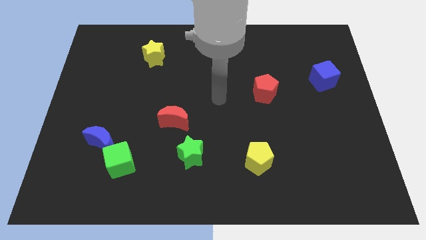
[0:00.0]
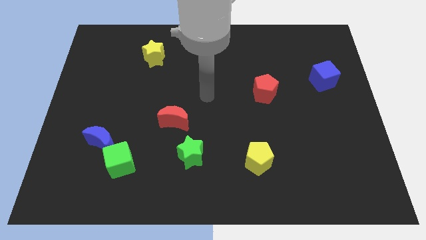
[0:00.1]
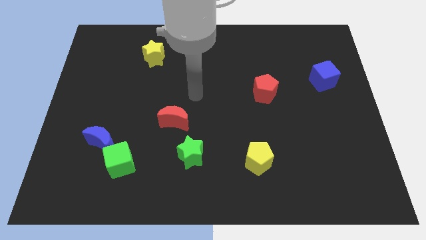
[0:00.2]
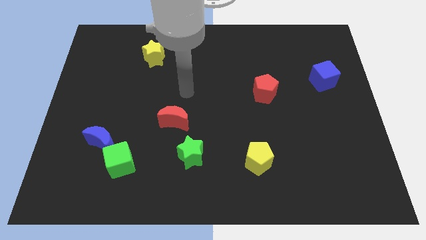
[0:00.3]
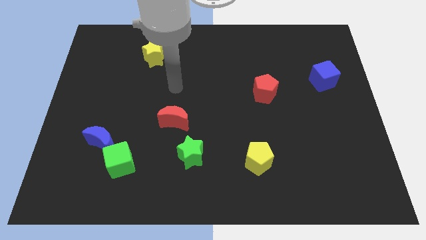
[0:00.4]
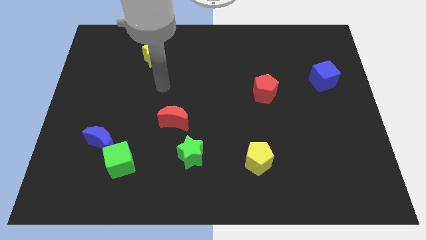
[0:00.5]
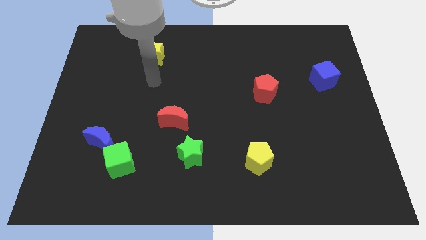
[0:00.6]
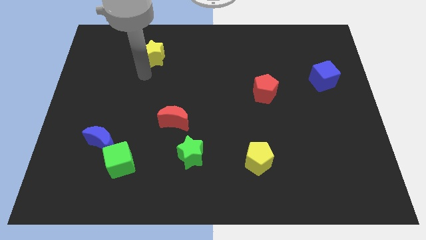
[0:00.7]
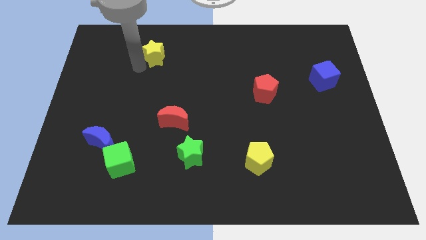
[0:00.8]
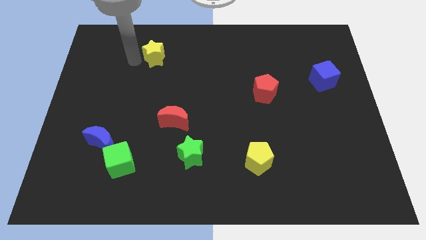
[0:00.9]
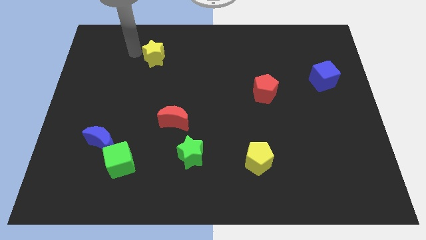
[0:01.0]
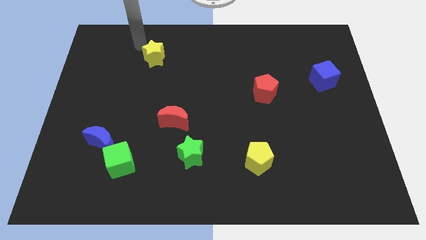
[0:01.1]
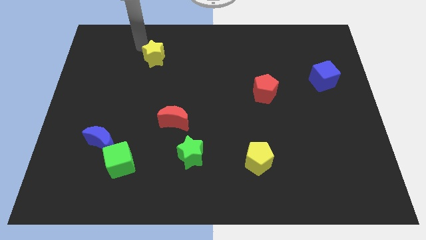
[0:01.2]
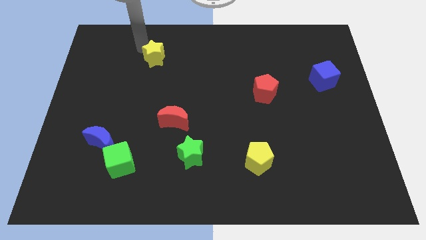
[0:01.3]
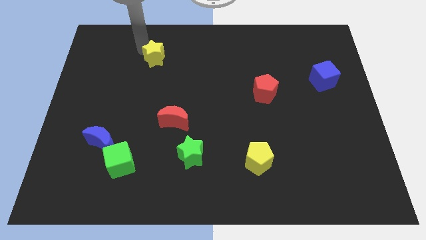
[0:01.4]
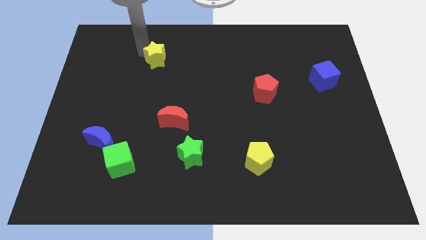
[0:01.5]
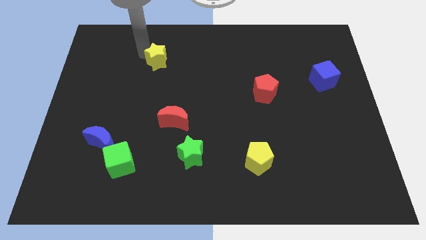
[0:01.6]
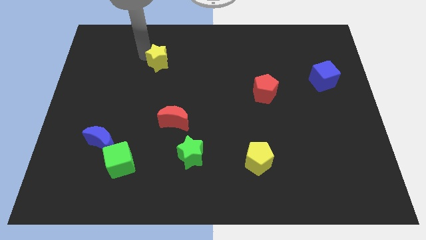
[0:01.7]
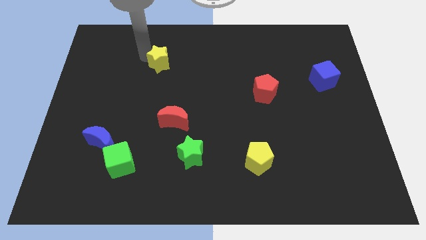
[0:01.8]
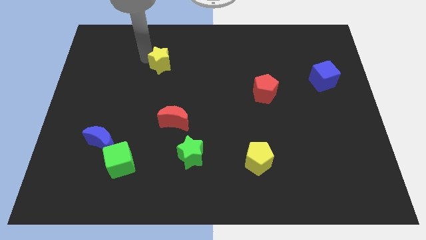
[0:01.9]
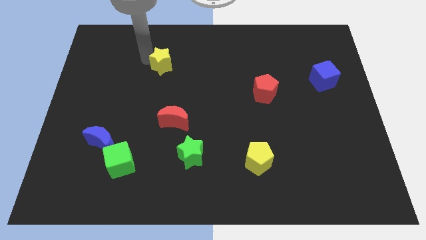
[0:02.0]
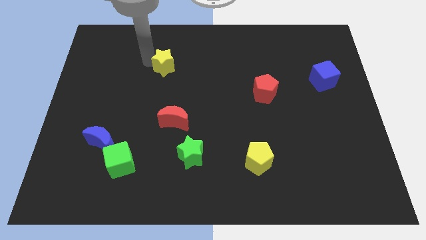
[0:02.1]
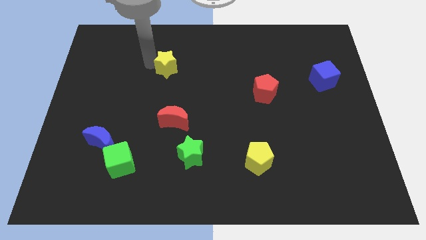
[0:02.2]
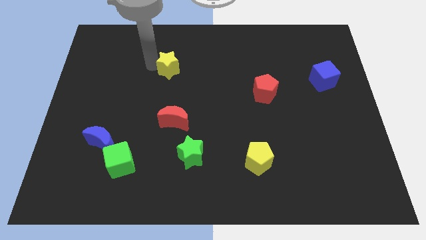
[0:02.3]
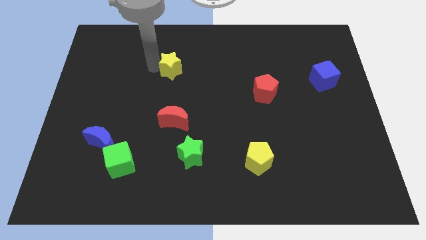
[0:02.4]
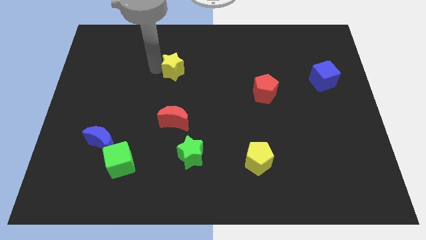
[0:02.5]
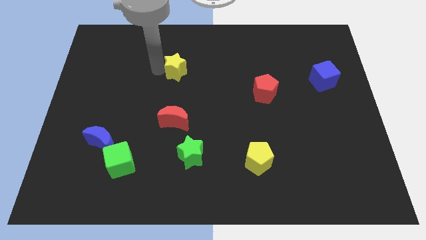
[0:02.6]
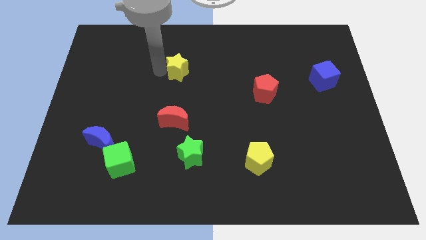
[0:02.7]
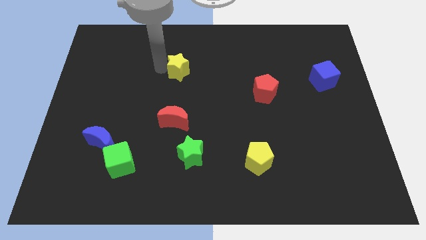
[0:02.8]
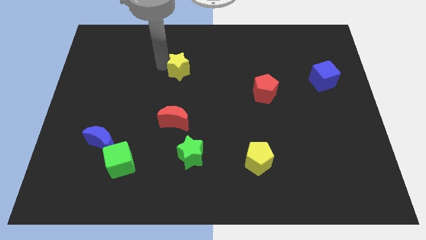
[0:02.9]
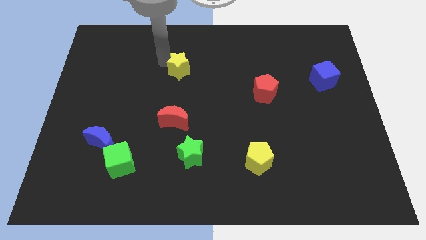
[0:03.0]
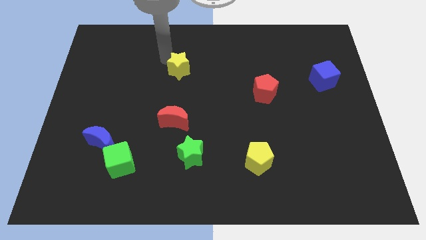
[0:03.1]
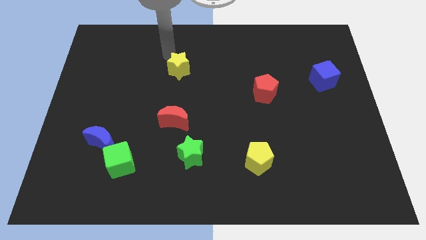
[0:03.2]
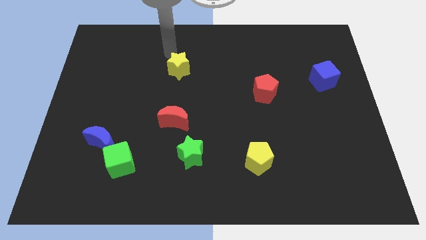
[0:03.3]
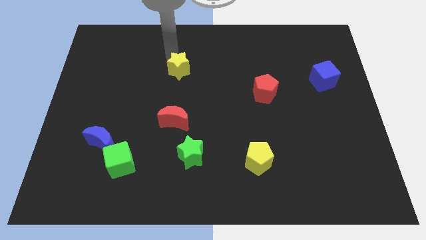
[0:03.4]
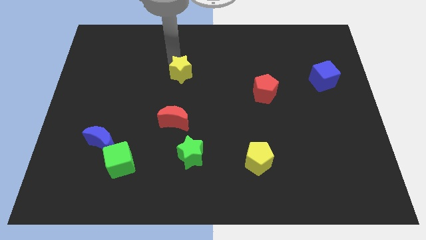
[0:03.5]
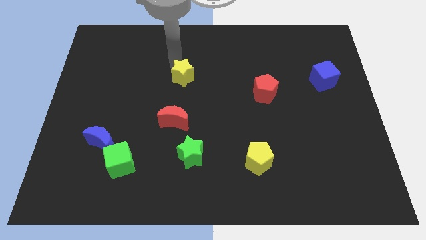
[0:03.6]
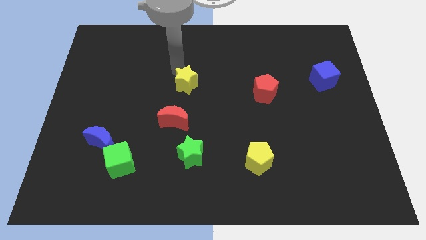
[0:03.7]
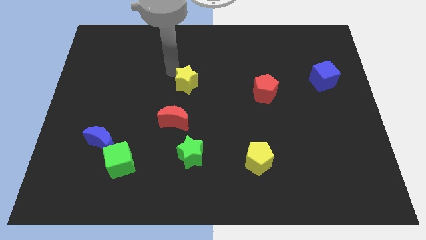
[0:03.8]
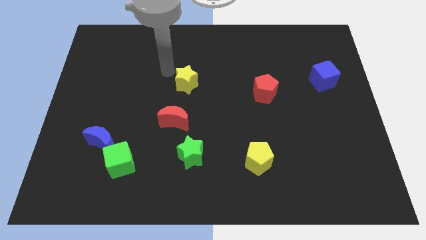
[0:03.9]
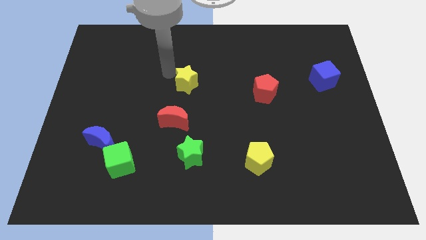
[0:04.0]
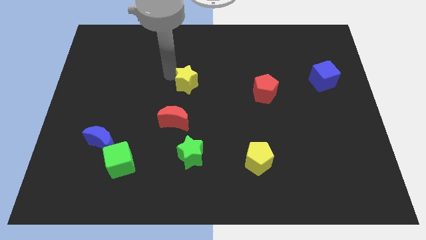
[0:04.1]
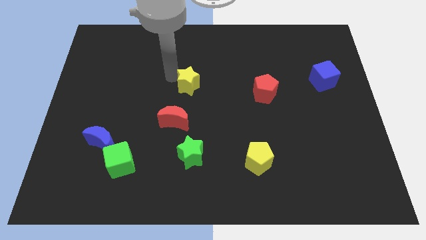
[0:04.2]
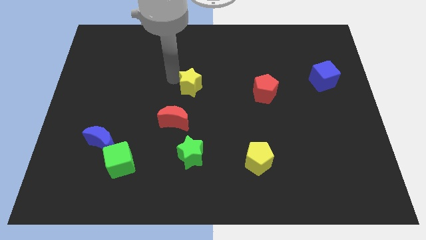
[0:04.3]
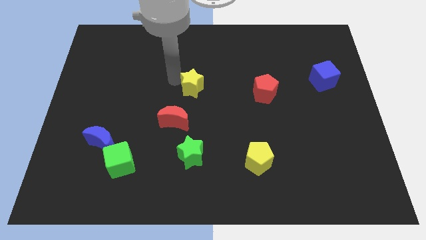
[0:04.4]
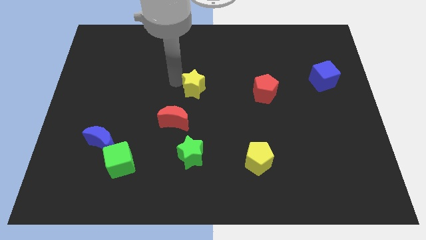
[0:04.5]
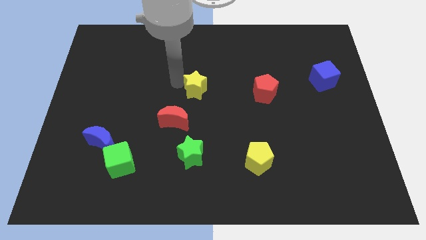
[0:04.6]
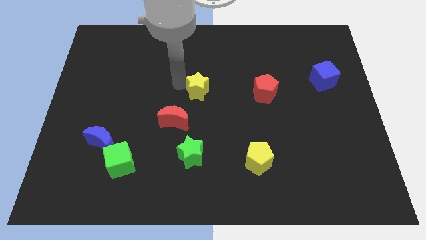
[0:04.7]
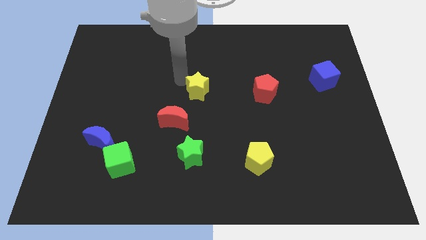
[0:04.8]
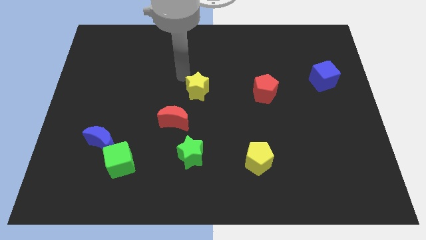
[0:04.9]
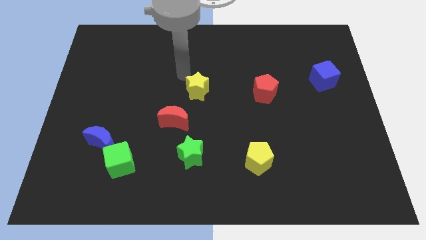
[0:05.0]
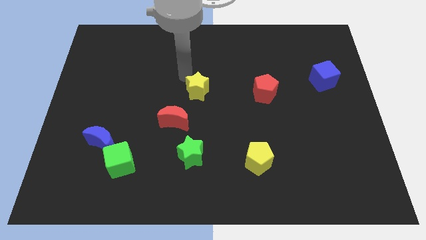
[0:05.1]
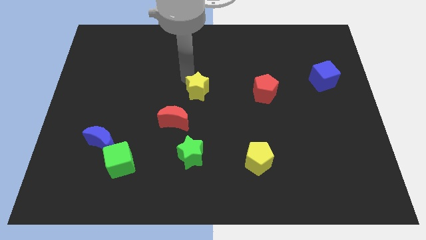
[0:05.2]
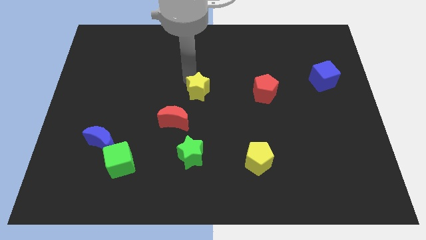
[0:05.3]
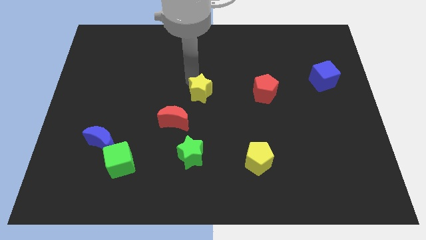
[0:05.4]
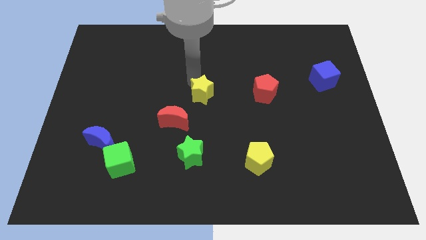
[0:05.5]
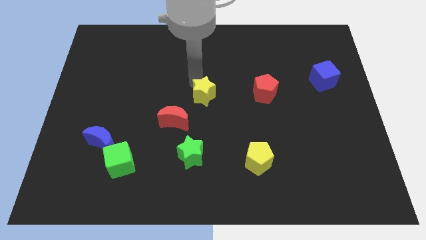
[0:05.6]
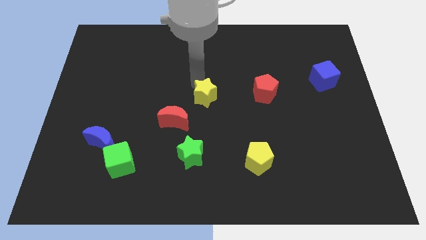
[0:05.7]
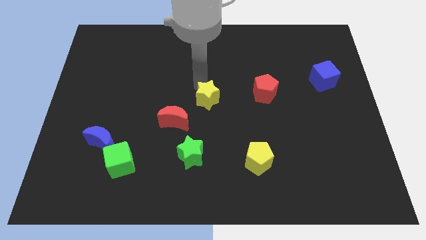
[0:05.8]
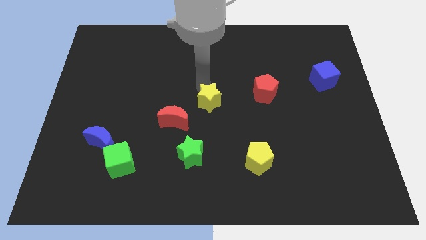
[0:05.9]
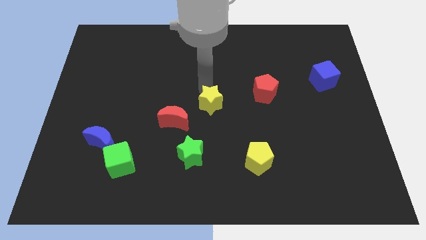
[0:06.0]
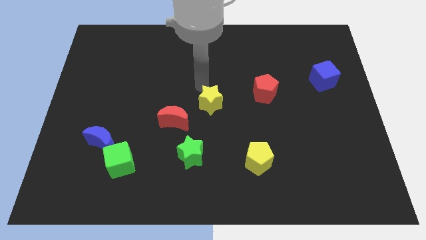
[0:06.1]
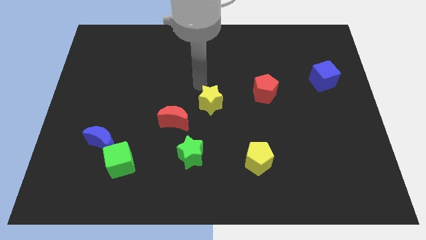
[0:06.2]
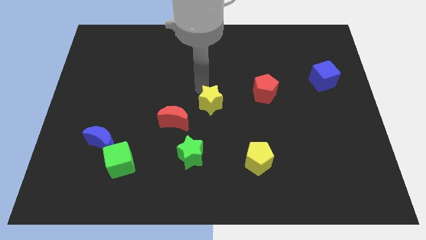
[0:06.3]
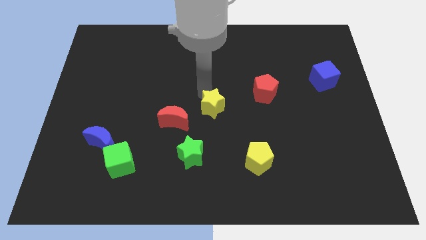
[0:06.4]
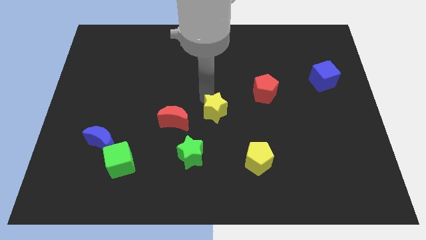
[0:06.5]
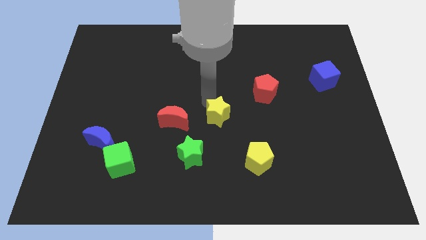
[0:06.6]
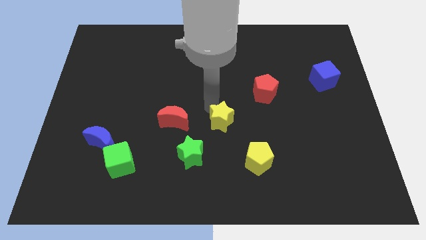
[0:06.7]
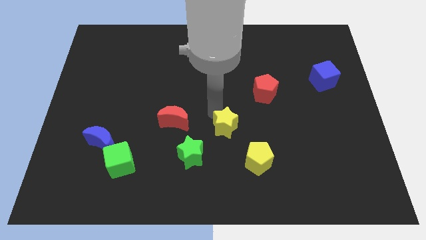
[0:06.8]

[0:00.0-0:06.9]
push the yellow star diagonally up and to the left of the yellow pentagon

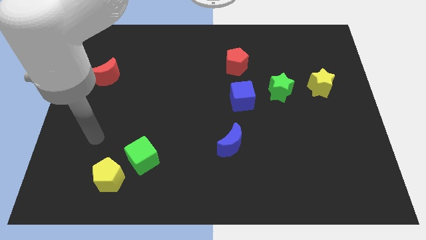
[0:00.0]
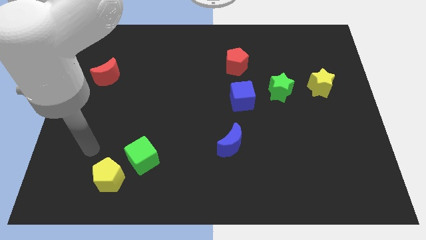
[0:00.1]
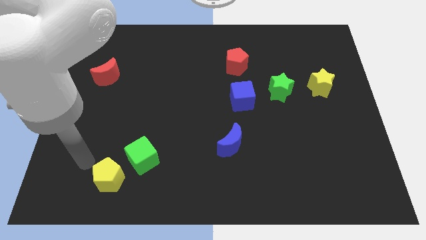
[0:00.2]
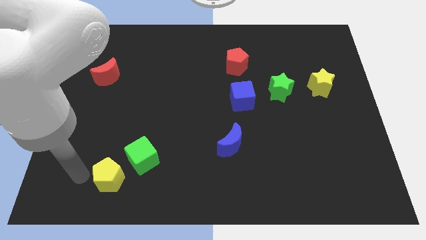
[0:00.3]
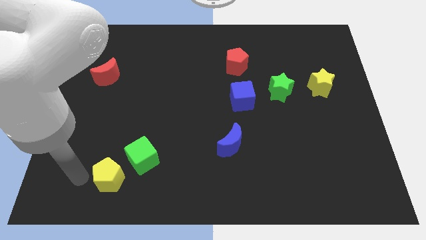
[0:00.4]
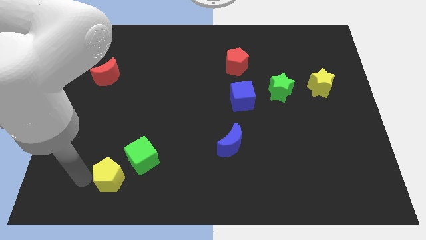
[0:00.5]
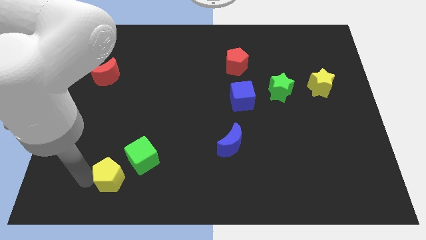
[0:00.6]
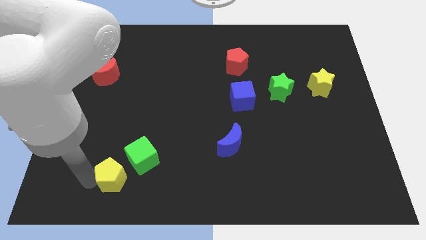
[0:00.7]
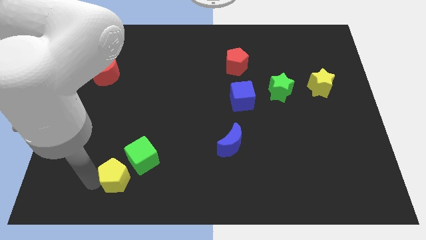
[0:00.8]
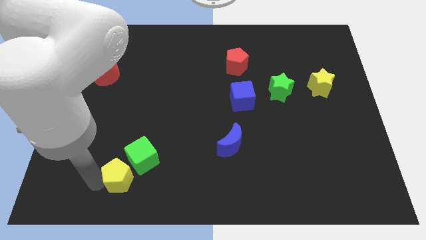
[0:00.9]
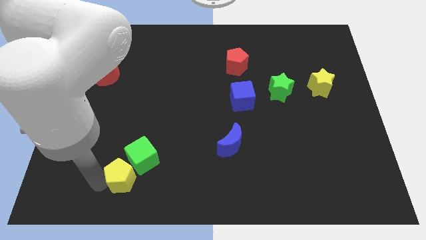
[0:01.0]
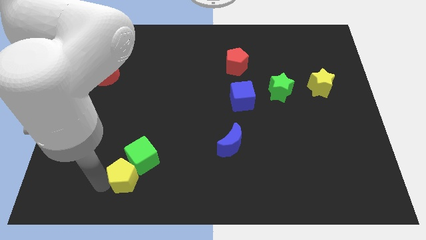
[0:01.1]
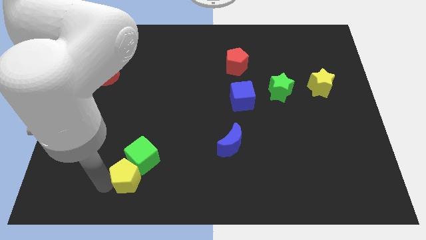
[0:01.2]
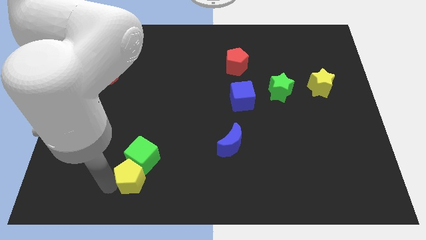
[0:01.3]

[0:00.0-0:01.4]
move the yellow pentagon to the bottom right side of the green cube
